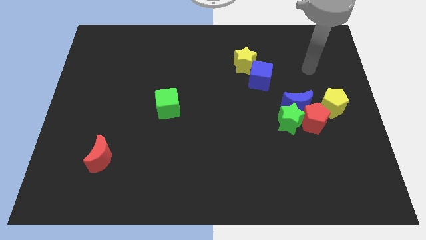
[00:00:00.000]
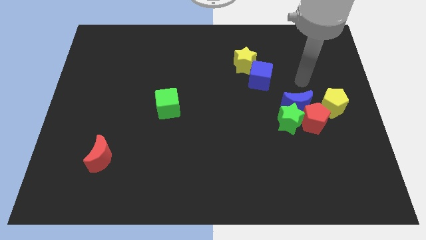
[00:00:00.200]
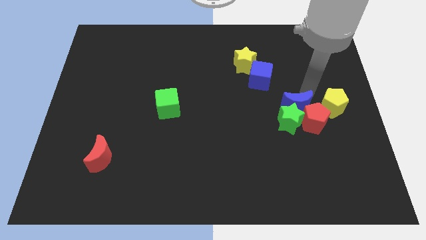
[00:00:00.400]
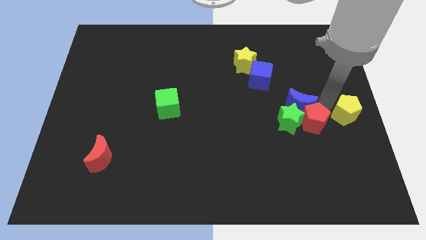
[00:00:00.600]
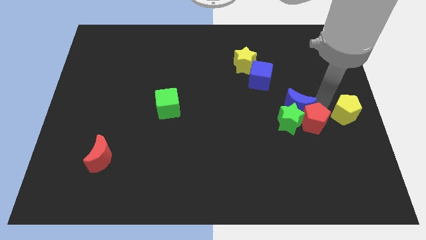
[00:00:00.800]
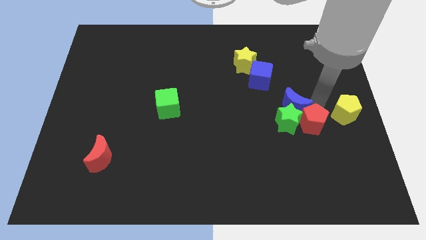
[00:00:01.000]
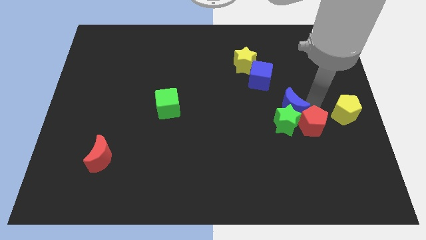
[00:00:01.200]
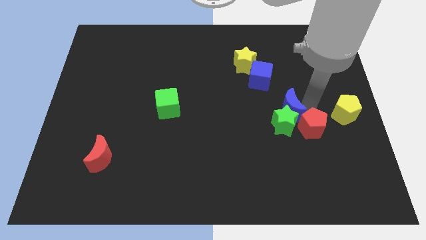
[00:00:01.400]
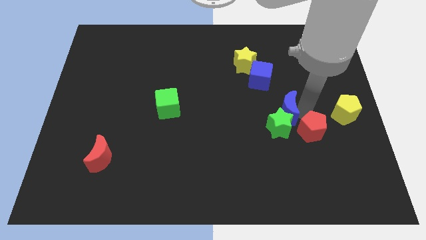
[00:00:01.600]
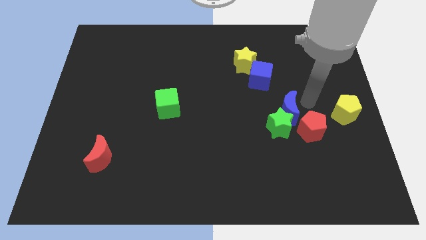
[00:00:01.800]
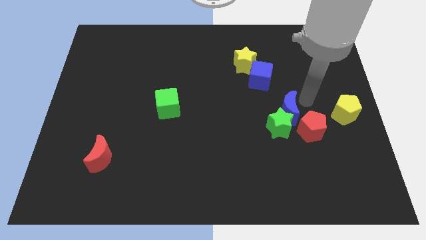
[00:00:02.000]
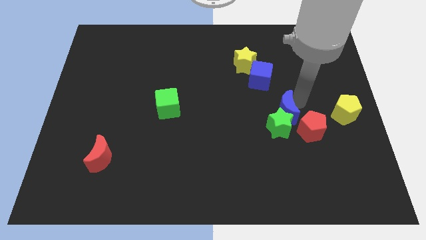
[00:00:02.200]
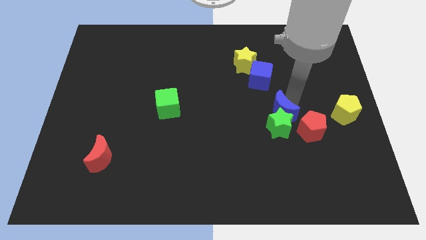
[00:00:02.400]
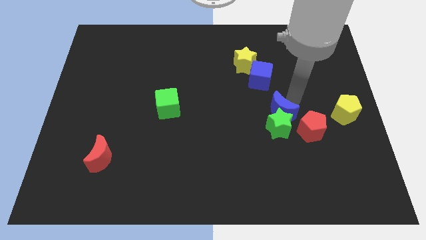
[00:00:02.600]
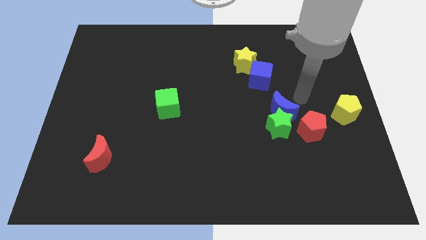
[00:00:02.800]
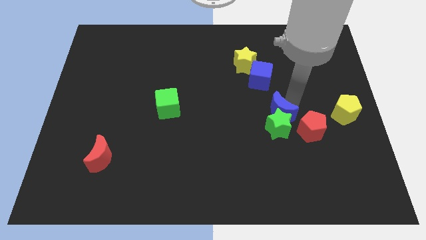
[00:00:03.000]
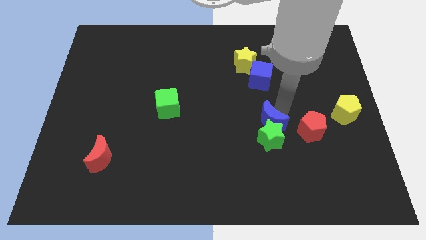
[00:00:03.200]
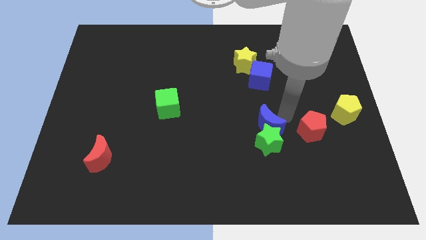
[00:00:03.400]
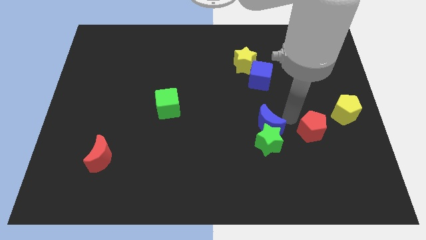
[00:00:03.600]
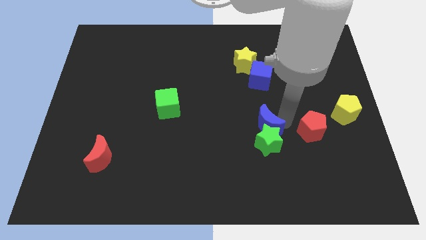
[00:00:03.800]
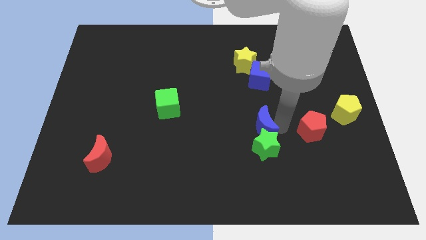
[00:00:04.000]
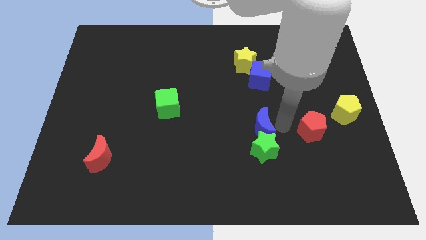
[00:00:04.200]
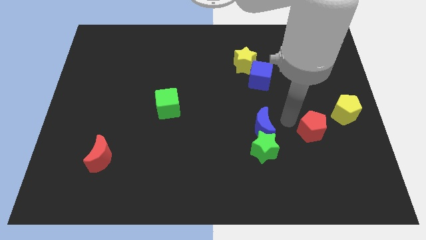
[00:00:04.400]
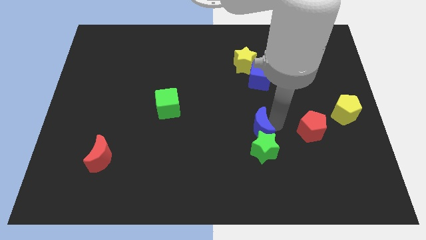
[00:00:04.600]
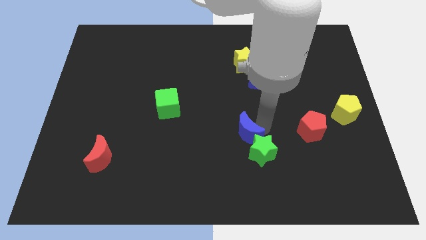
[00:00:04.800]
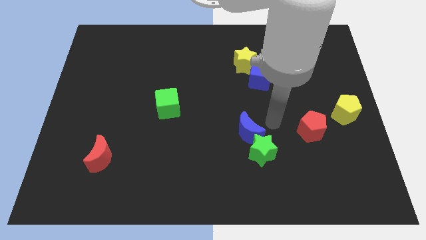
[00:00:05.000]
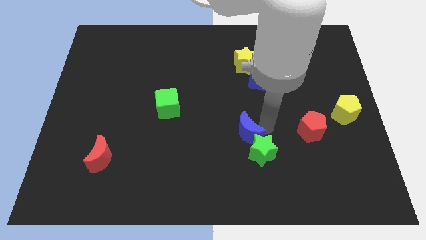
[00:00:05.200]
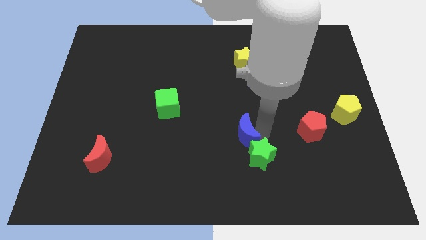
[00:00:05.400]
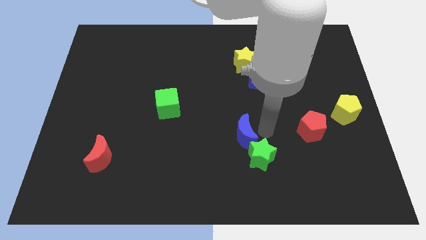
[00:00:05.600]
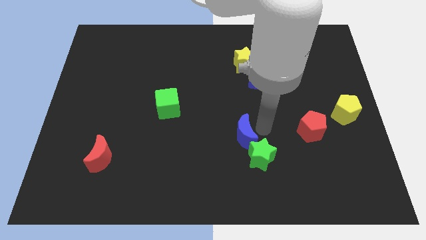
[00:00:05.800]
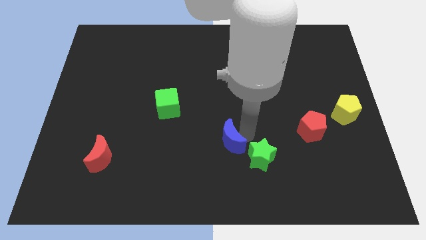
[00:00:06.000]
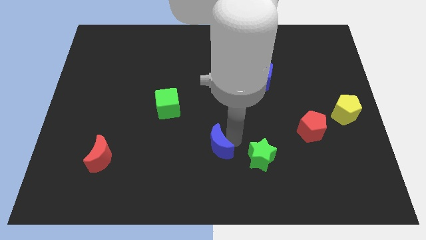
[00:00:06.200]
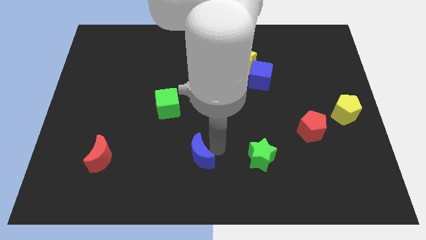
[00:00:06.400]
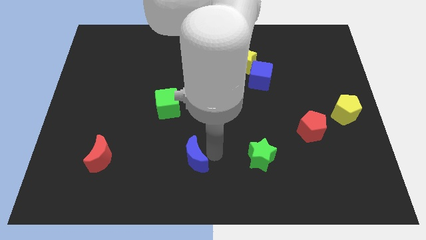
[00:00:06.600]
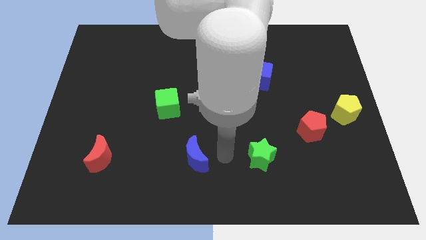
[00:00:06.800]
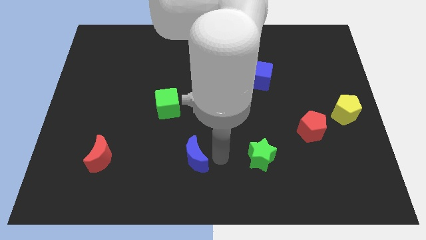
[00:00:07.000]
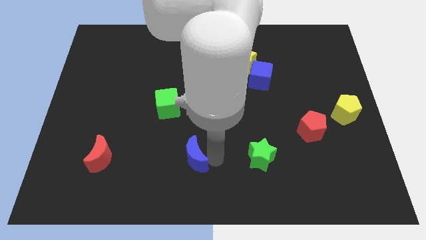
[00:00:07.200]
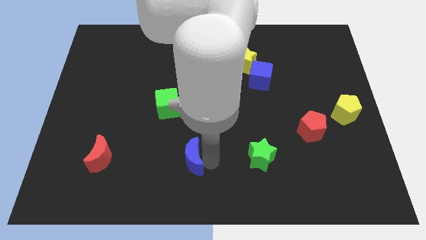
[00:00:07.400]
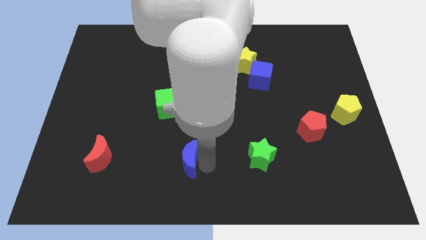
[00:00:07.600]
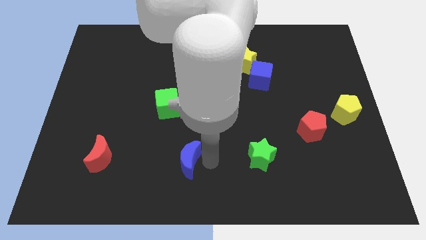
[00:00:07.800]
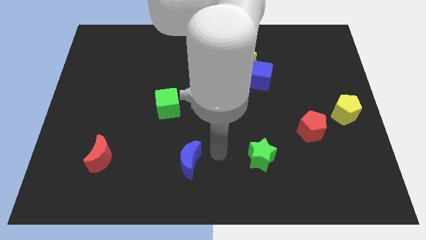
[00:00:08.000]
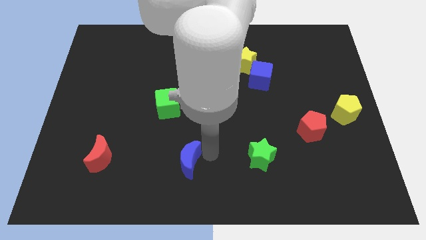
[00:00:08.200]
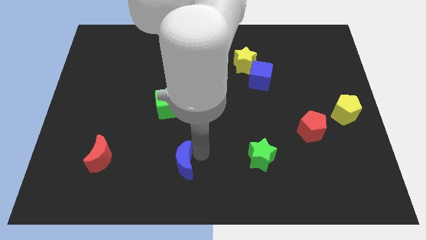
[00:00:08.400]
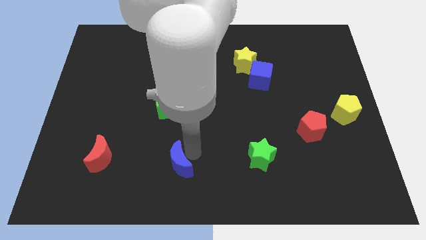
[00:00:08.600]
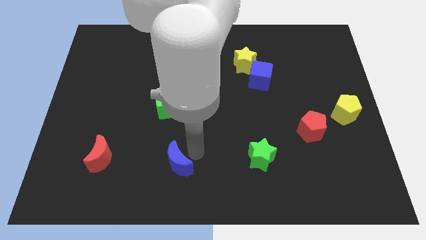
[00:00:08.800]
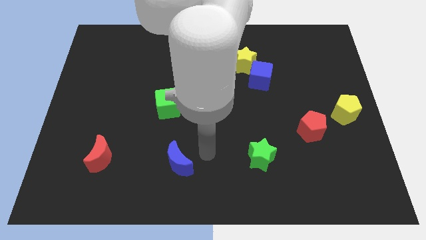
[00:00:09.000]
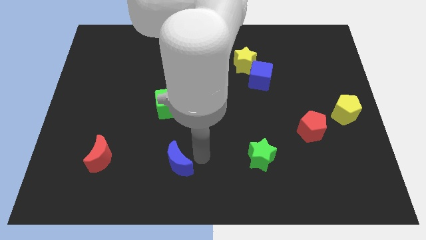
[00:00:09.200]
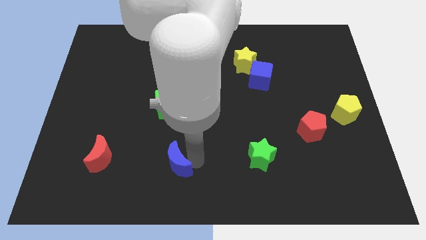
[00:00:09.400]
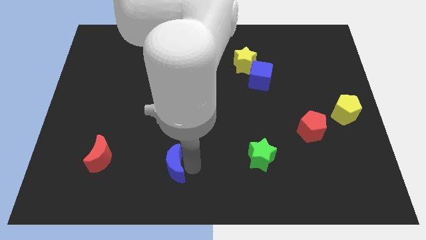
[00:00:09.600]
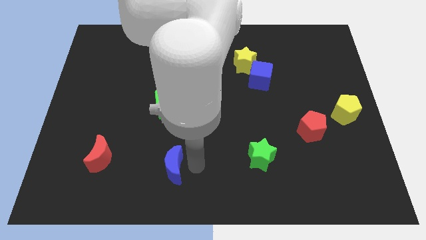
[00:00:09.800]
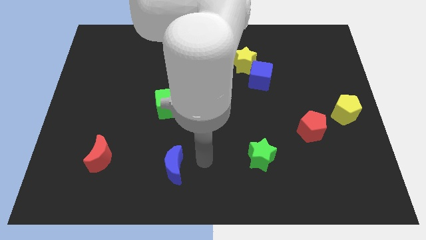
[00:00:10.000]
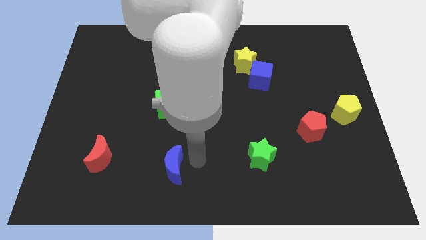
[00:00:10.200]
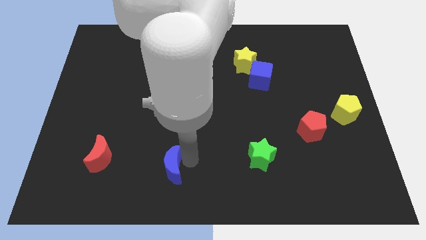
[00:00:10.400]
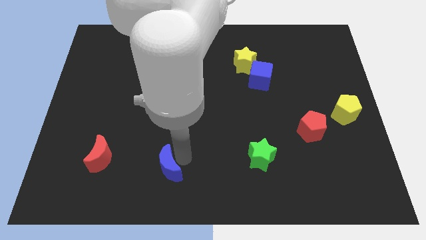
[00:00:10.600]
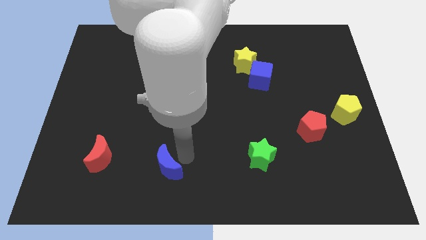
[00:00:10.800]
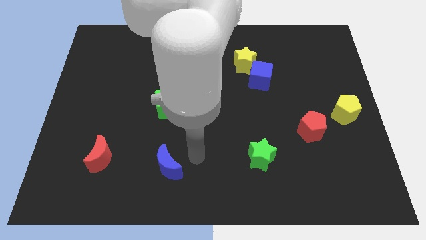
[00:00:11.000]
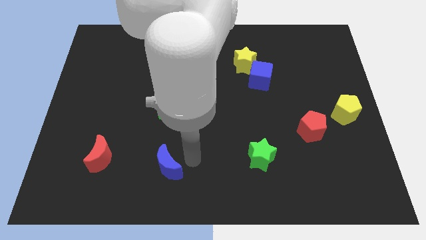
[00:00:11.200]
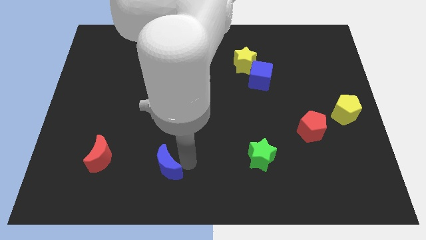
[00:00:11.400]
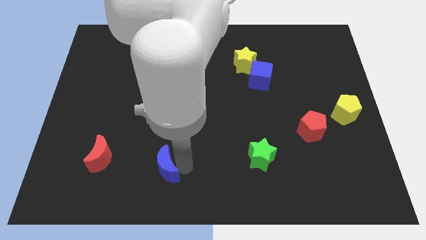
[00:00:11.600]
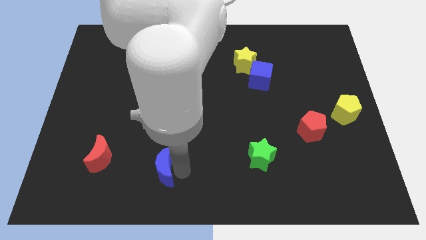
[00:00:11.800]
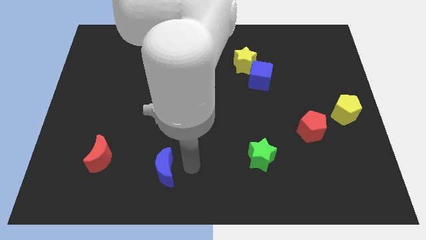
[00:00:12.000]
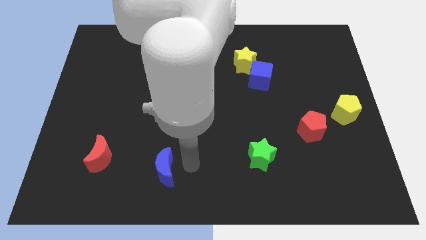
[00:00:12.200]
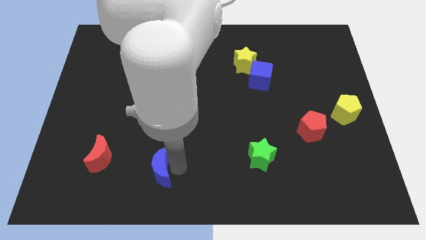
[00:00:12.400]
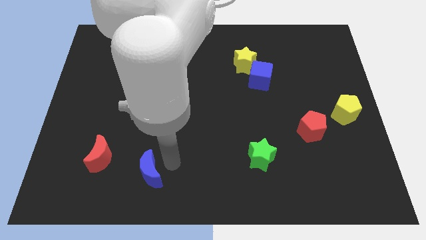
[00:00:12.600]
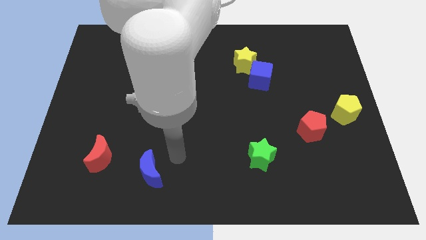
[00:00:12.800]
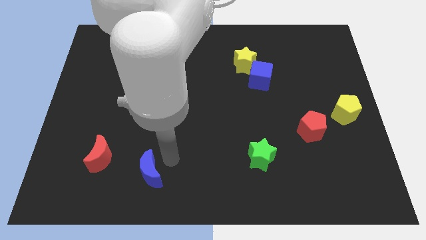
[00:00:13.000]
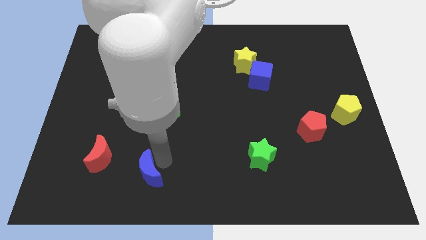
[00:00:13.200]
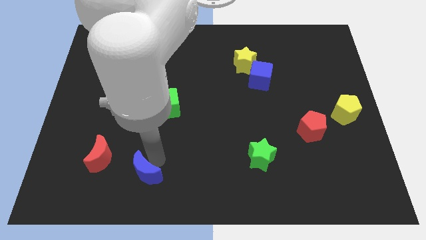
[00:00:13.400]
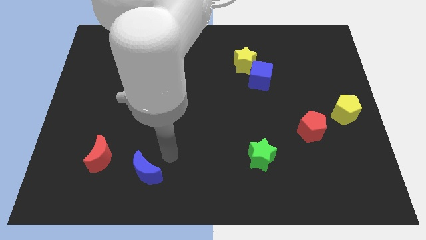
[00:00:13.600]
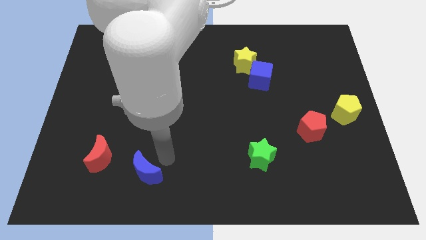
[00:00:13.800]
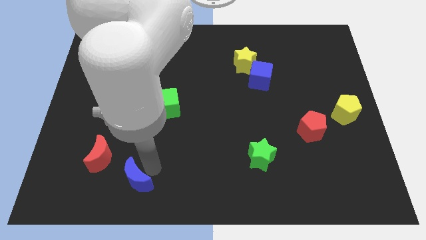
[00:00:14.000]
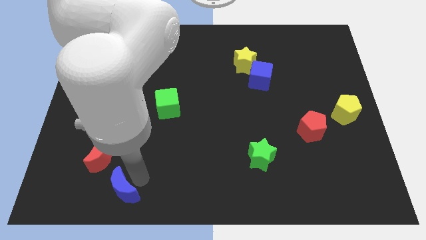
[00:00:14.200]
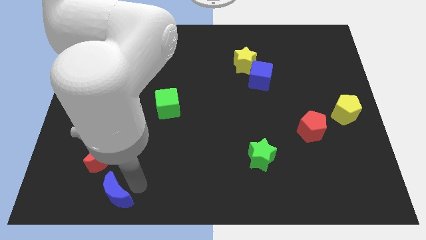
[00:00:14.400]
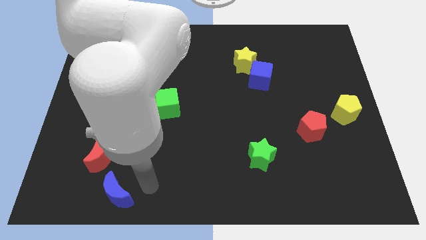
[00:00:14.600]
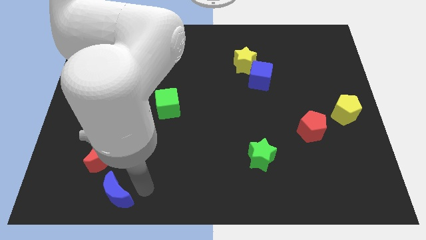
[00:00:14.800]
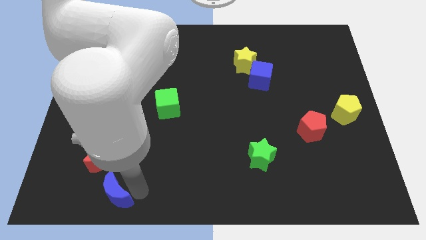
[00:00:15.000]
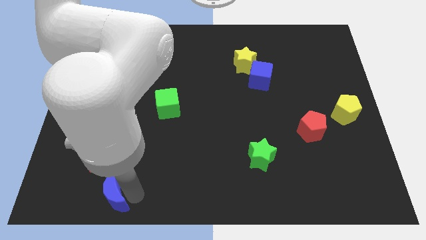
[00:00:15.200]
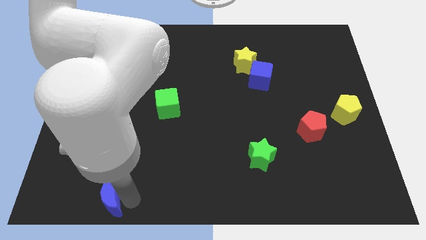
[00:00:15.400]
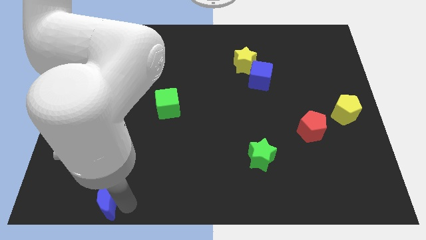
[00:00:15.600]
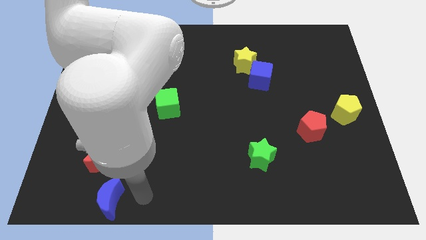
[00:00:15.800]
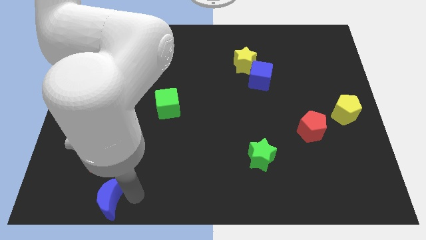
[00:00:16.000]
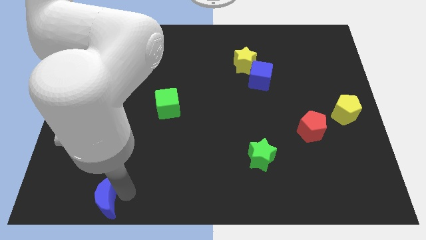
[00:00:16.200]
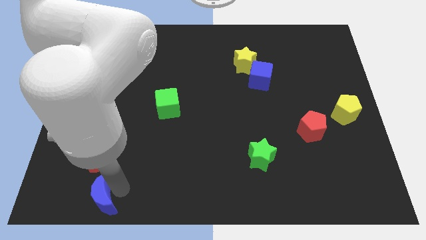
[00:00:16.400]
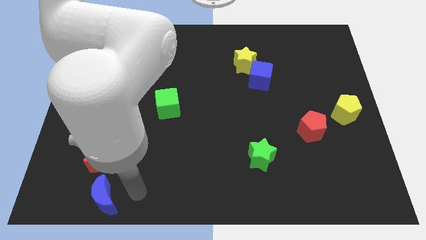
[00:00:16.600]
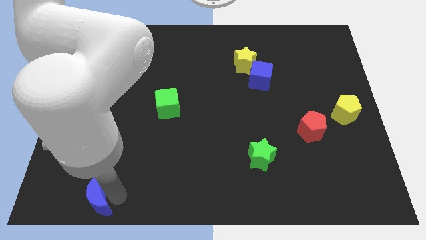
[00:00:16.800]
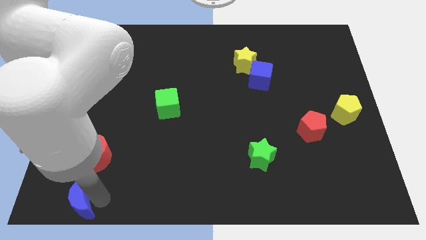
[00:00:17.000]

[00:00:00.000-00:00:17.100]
put the blue moon to the lower left corner
